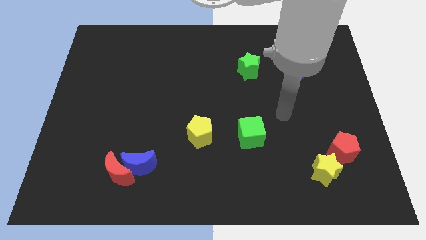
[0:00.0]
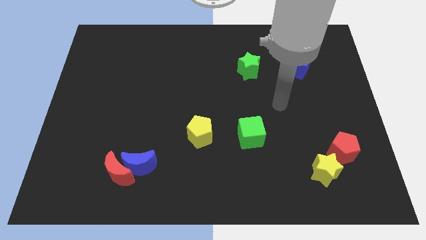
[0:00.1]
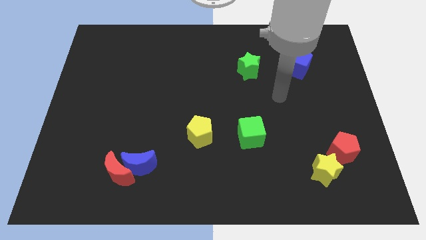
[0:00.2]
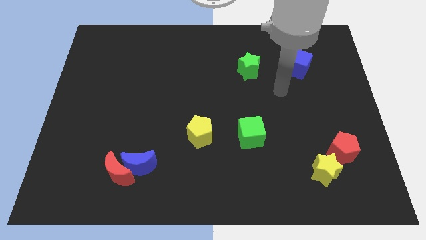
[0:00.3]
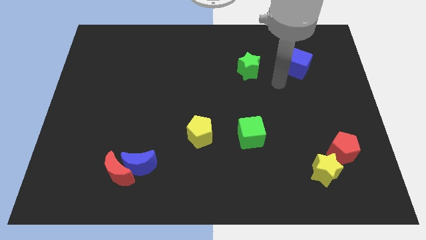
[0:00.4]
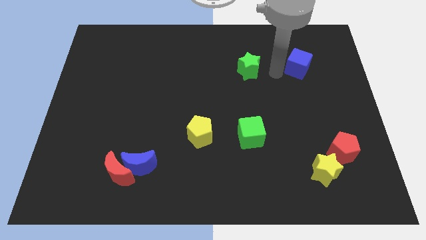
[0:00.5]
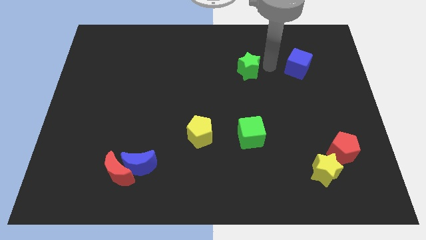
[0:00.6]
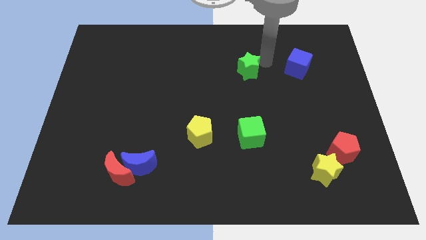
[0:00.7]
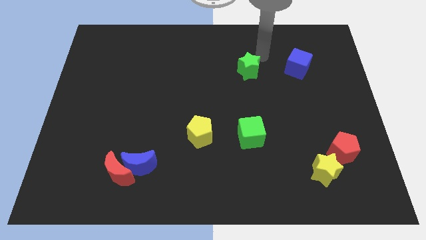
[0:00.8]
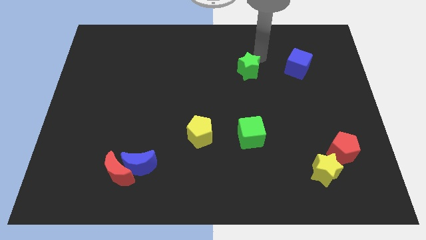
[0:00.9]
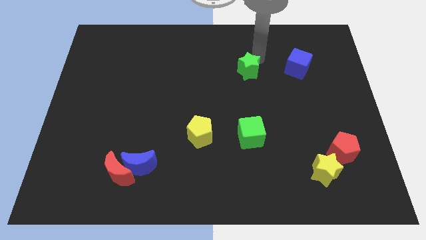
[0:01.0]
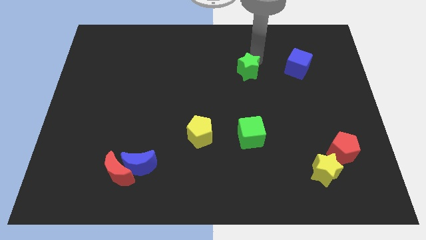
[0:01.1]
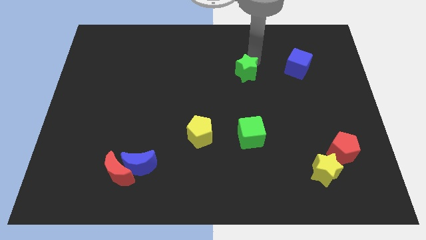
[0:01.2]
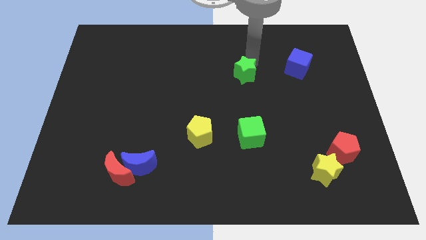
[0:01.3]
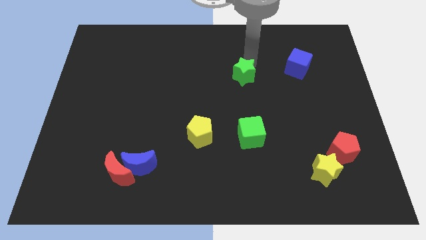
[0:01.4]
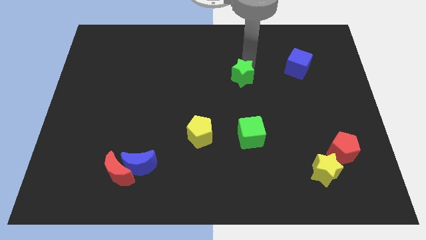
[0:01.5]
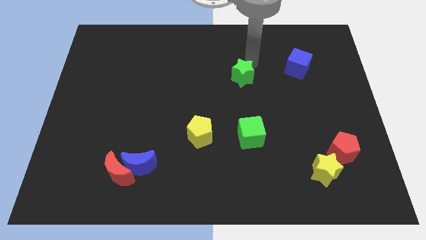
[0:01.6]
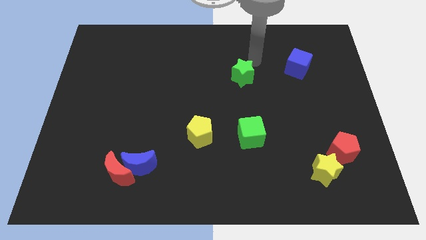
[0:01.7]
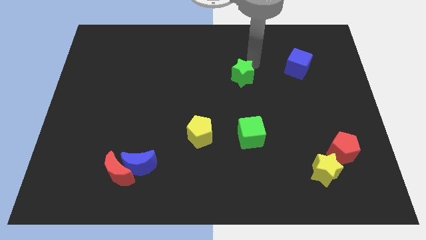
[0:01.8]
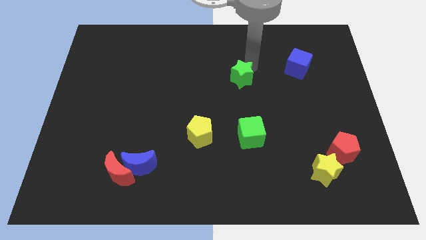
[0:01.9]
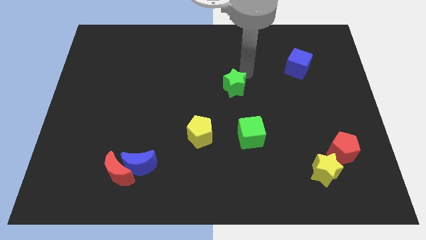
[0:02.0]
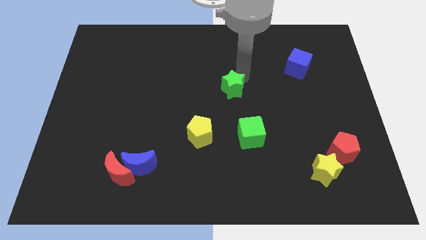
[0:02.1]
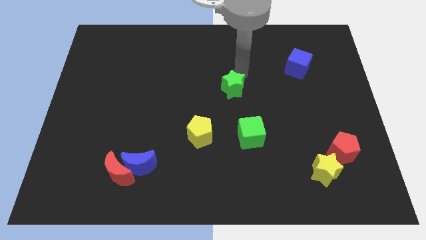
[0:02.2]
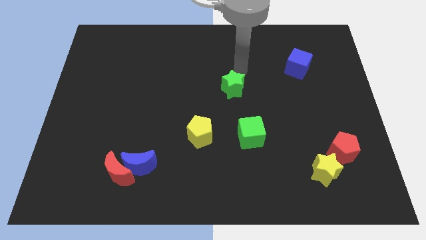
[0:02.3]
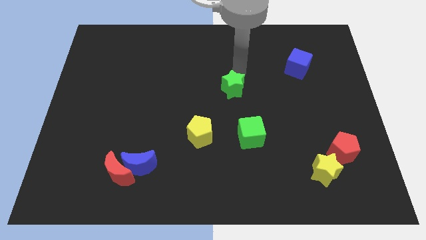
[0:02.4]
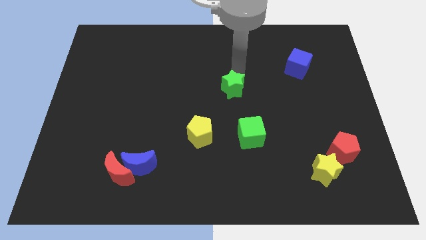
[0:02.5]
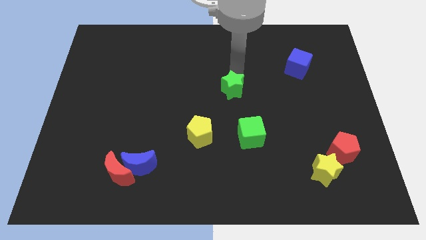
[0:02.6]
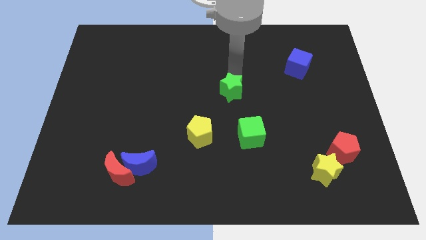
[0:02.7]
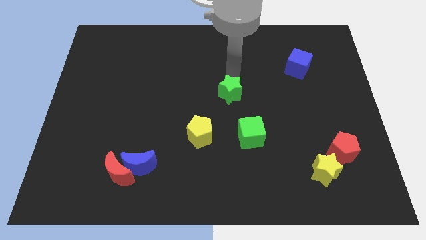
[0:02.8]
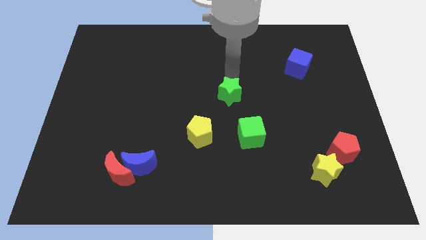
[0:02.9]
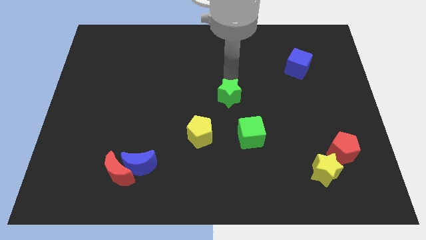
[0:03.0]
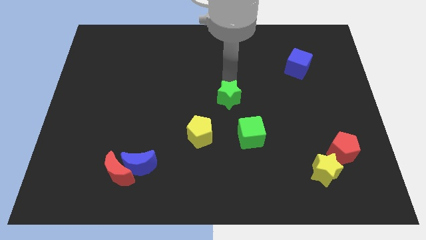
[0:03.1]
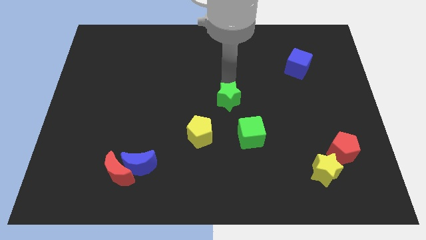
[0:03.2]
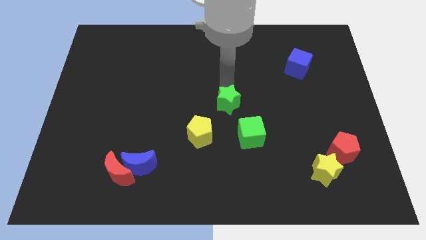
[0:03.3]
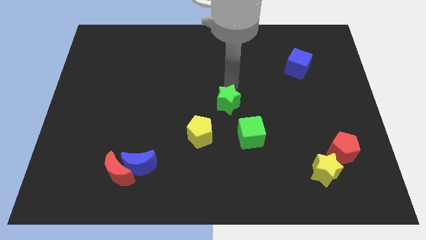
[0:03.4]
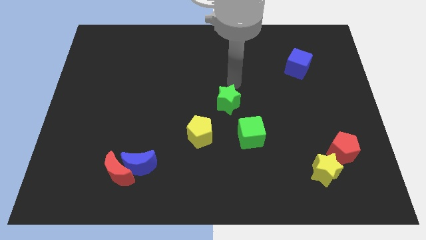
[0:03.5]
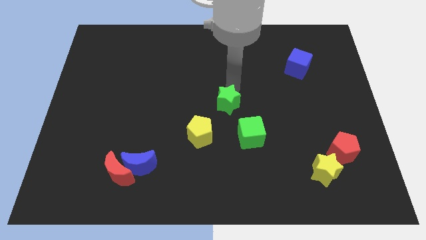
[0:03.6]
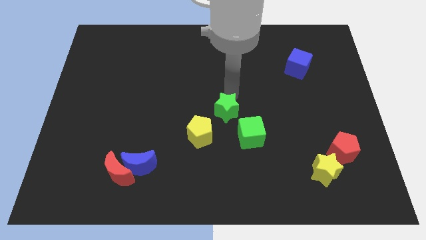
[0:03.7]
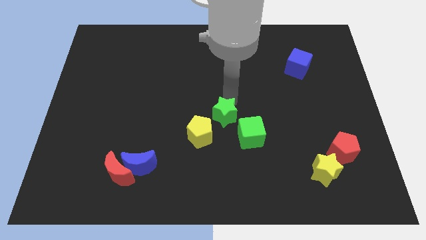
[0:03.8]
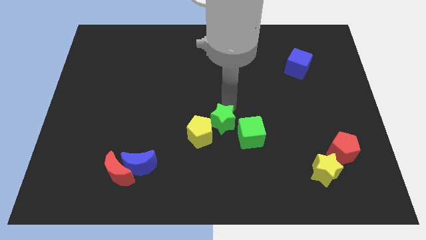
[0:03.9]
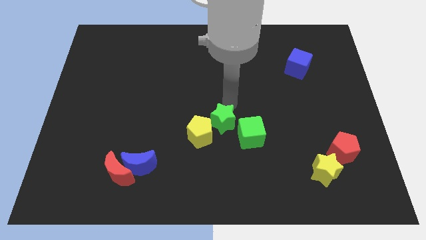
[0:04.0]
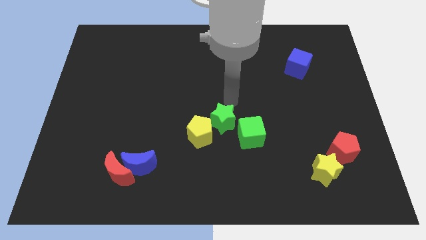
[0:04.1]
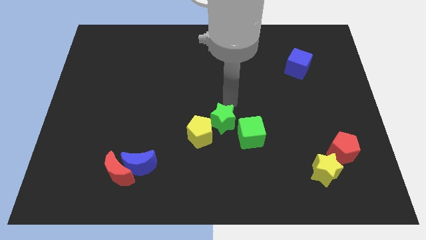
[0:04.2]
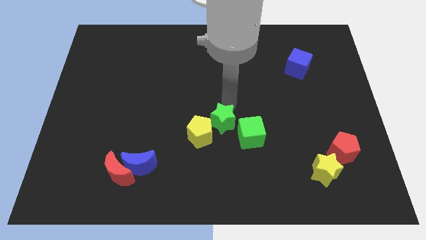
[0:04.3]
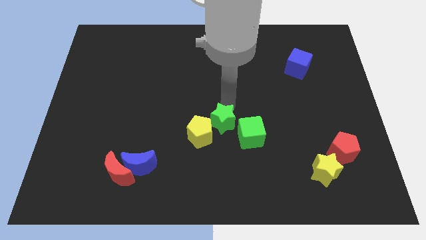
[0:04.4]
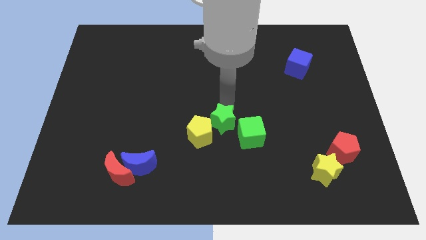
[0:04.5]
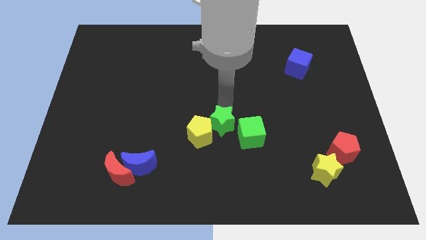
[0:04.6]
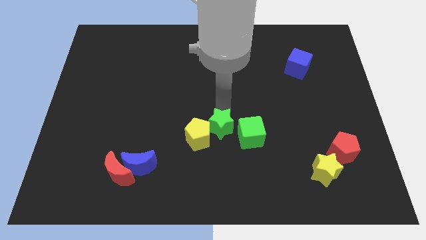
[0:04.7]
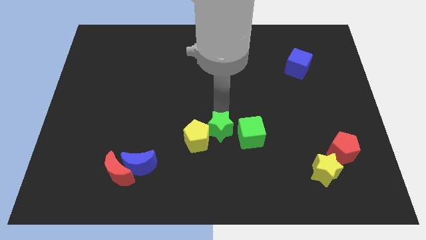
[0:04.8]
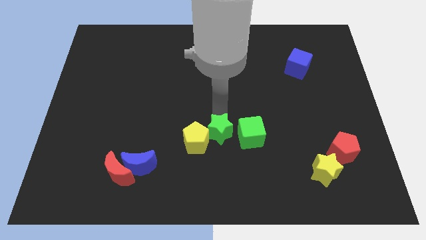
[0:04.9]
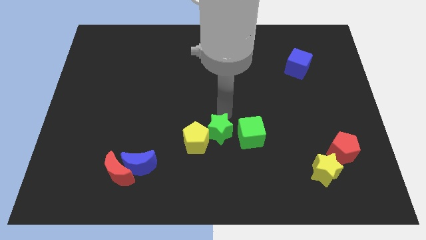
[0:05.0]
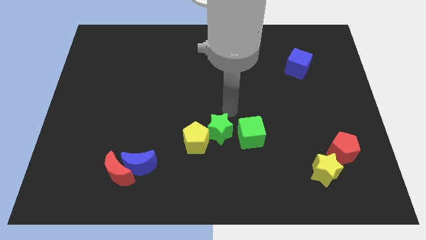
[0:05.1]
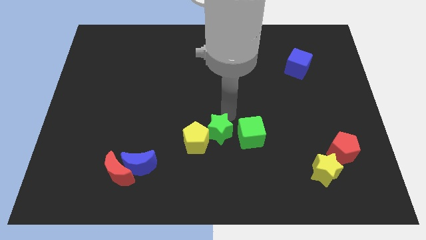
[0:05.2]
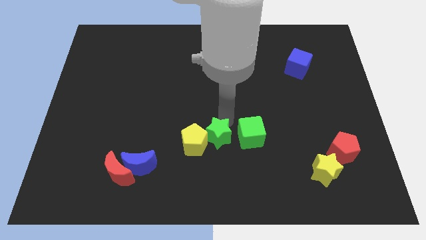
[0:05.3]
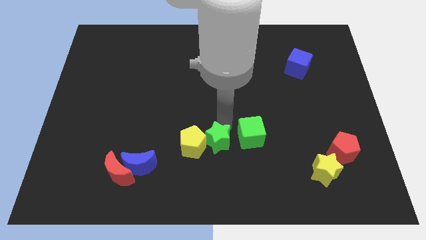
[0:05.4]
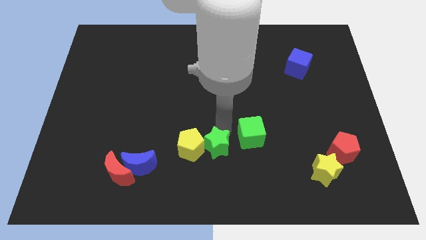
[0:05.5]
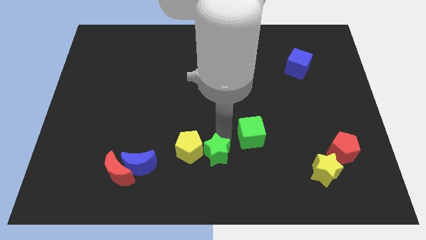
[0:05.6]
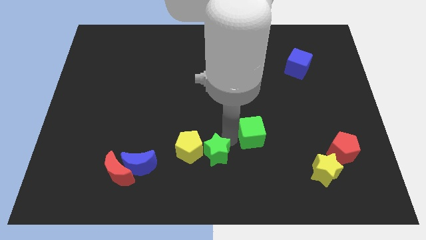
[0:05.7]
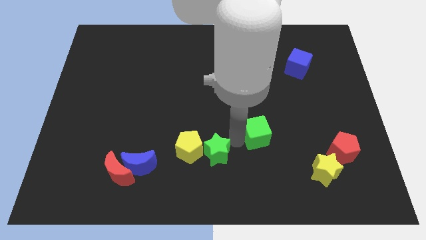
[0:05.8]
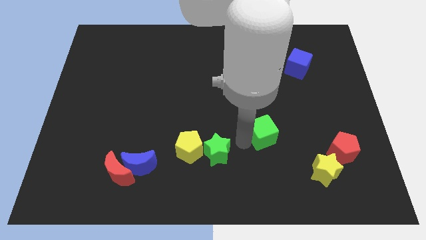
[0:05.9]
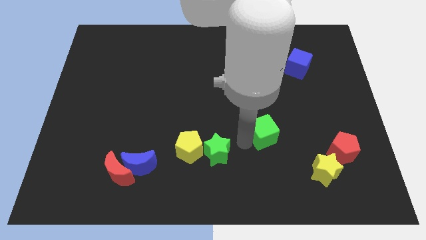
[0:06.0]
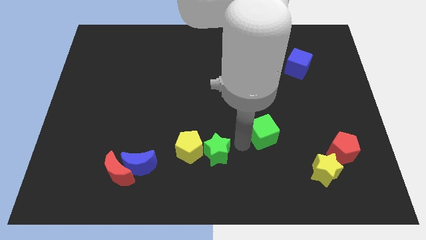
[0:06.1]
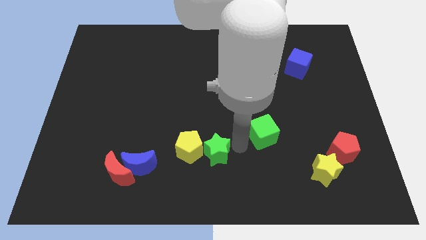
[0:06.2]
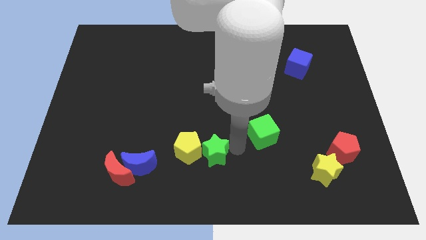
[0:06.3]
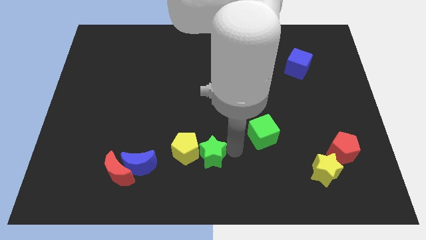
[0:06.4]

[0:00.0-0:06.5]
move the green star just right of the blue moon
